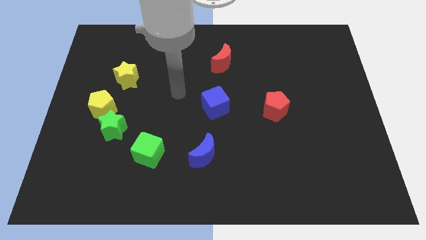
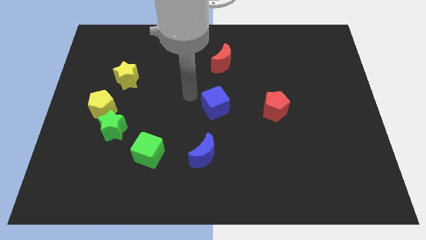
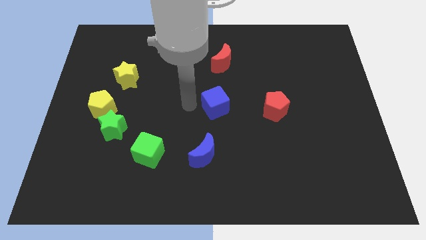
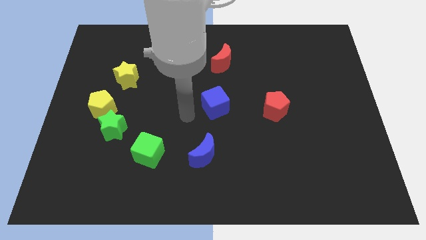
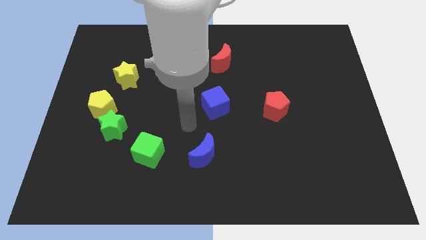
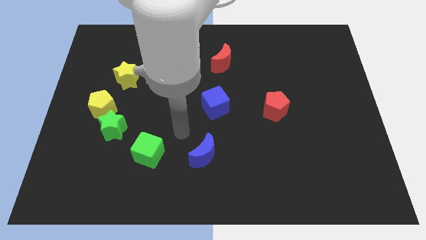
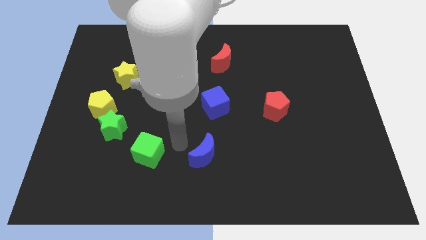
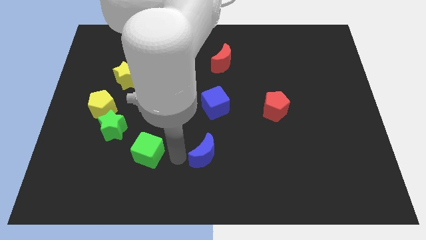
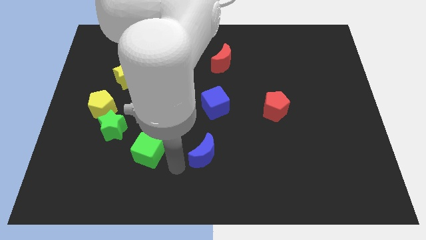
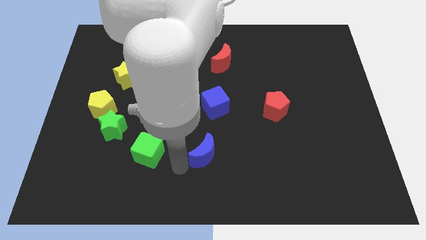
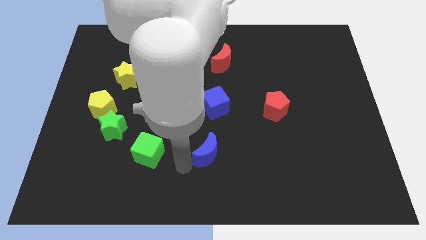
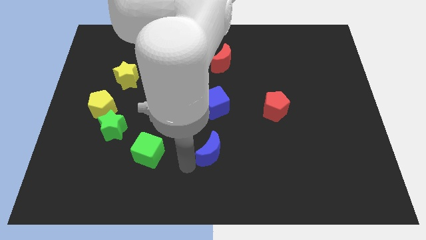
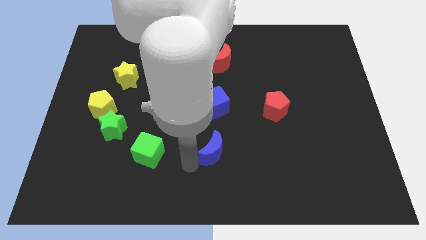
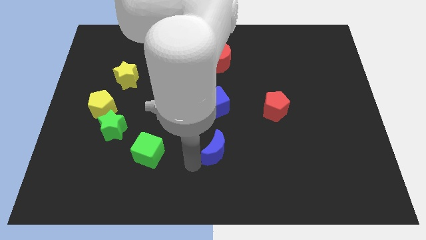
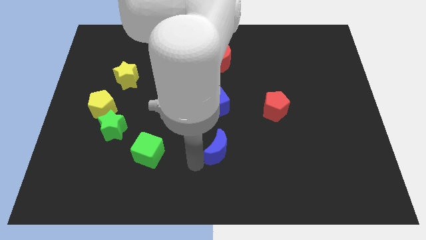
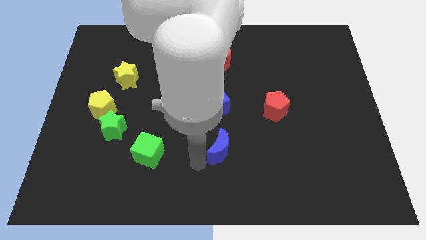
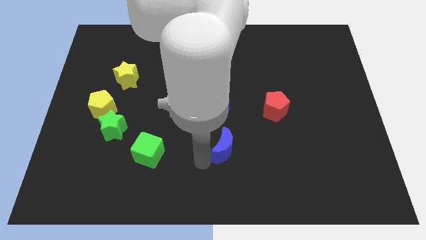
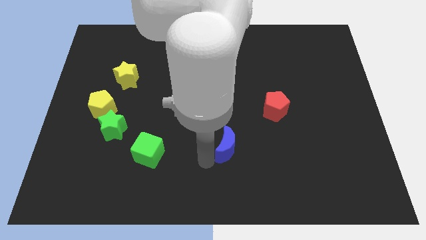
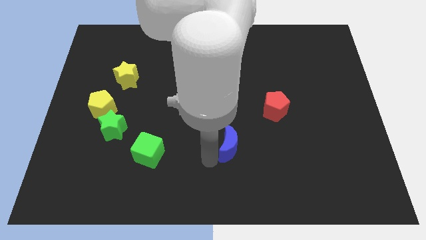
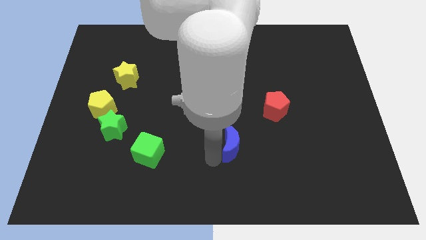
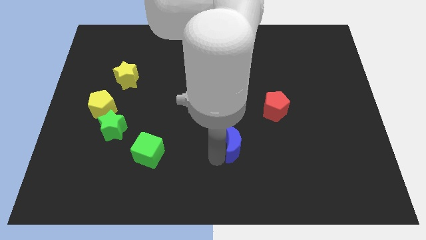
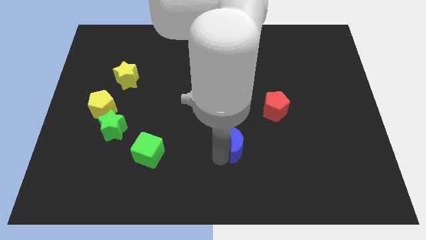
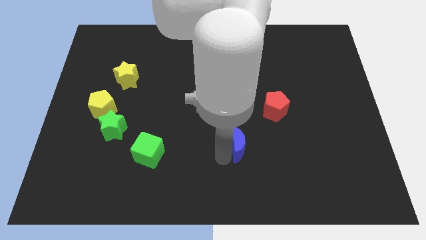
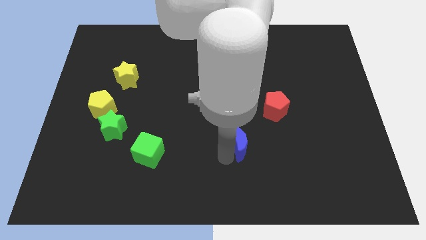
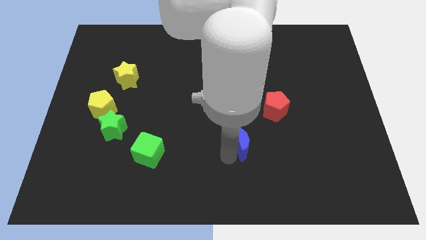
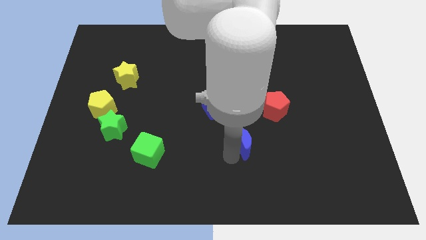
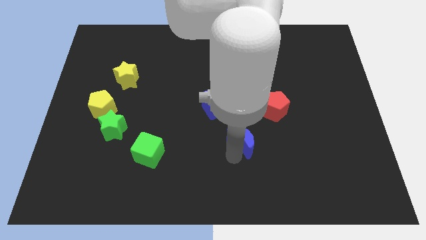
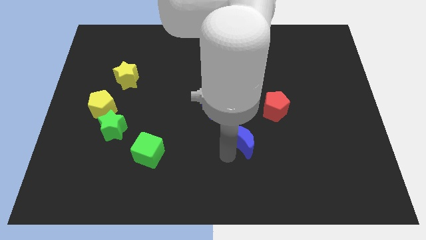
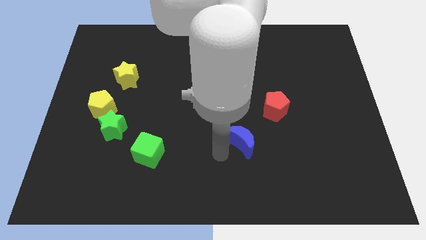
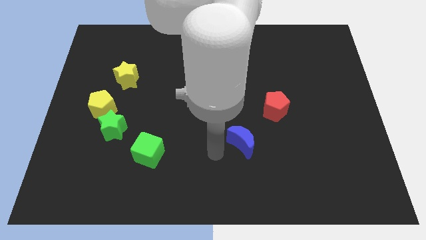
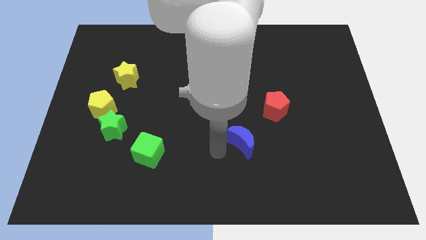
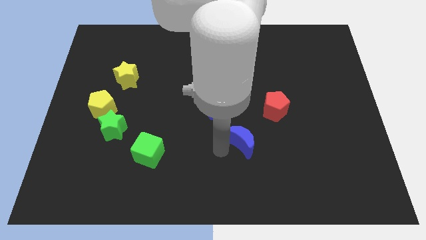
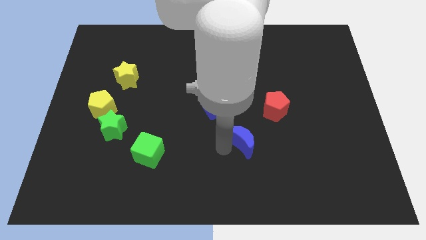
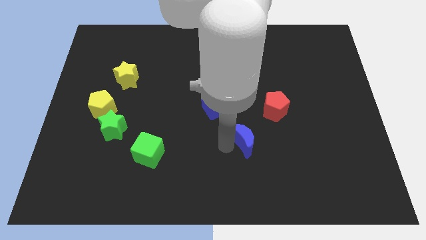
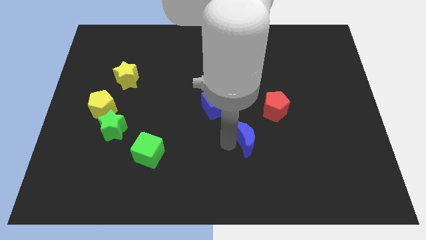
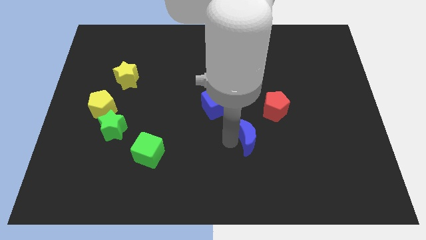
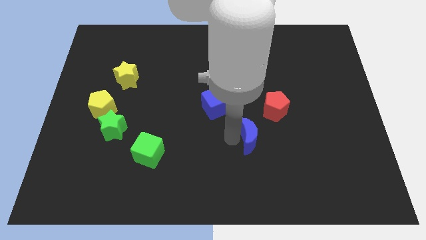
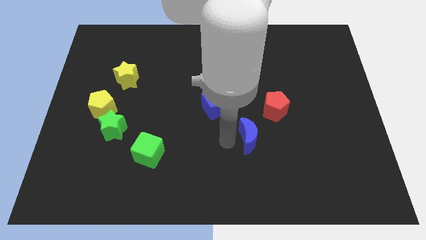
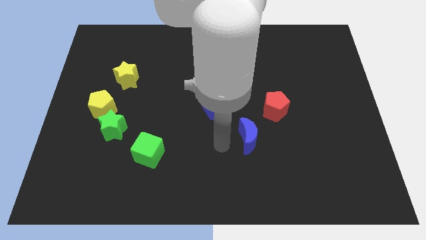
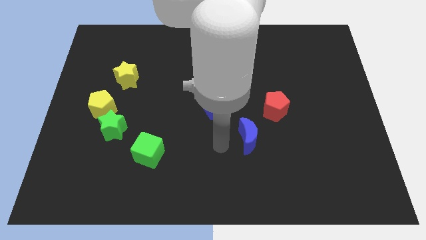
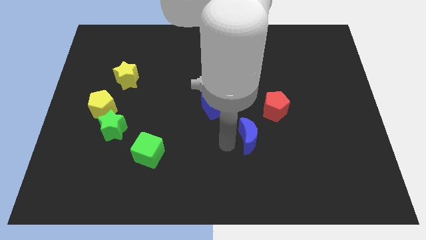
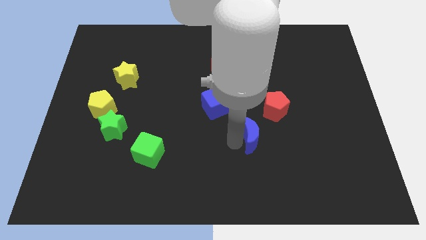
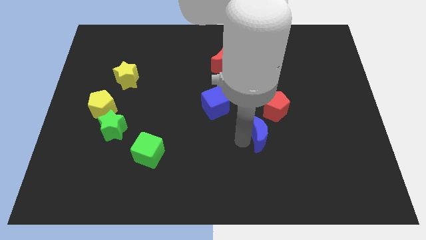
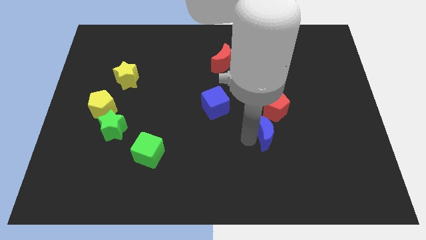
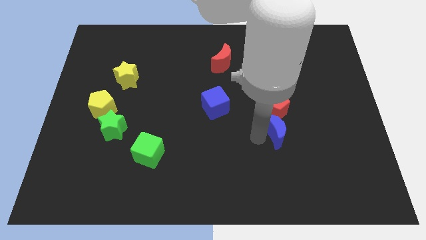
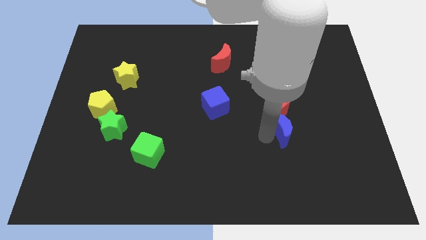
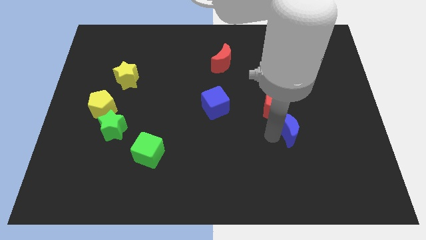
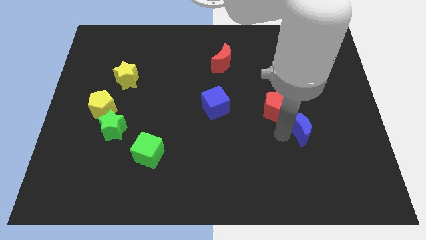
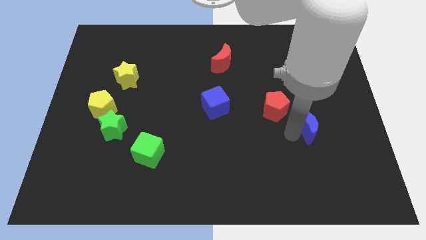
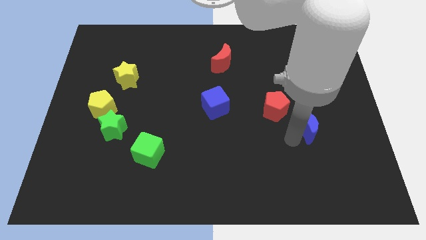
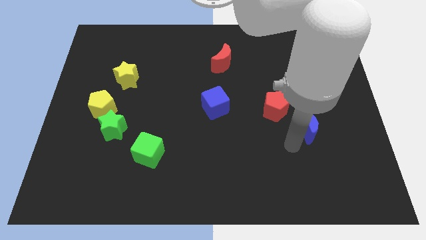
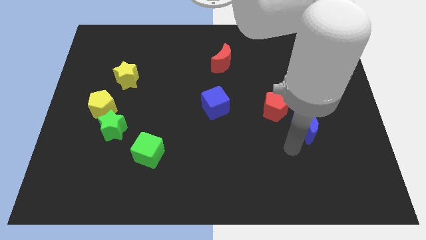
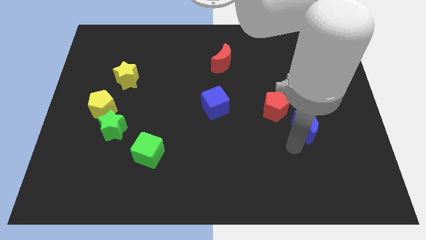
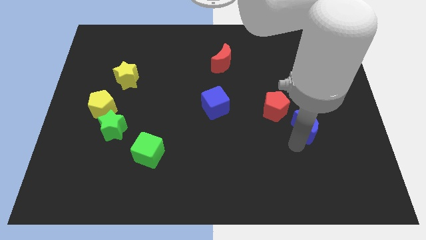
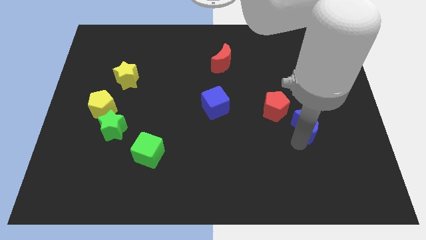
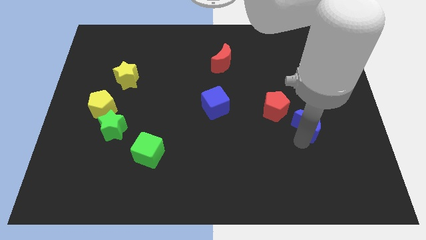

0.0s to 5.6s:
slide the blue moon right of the red pentagon

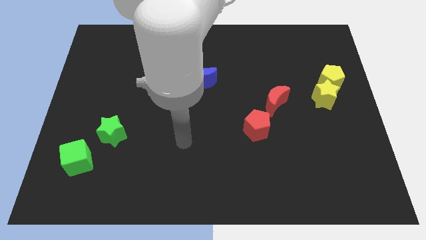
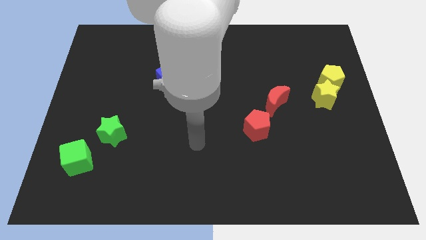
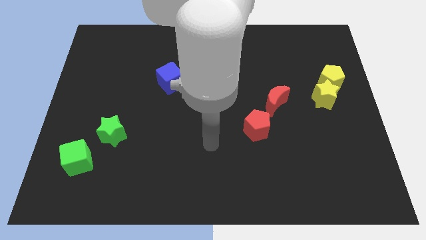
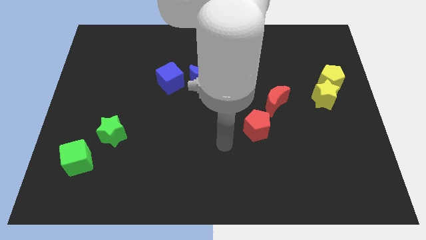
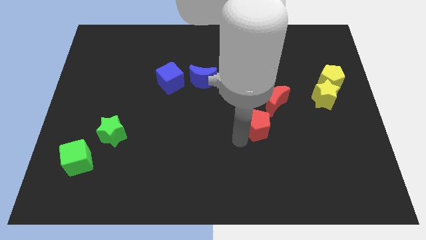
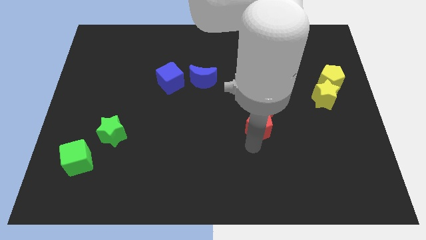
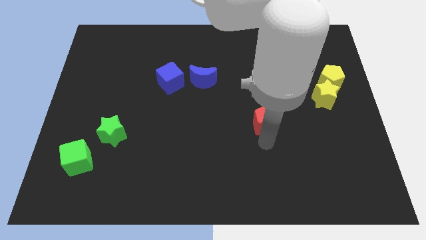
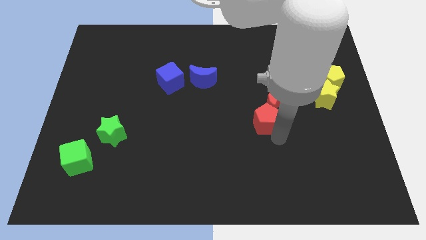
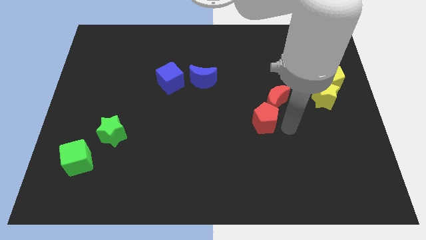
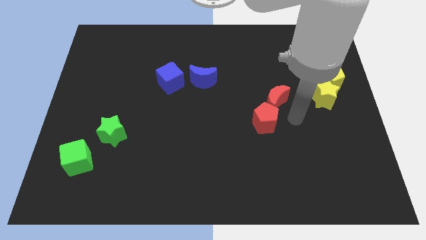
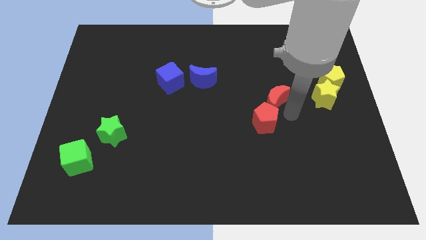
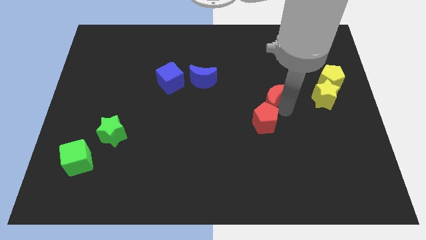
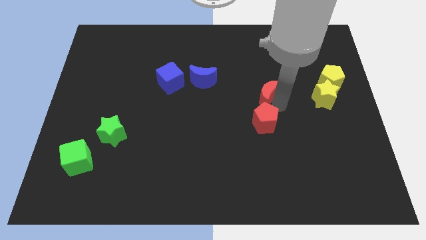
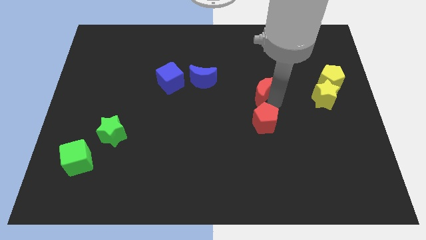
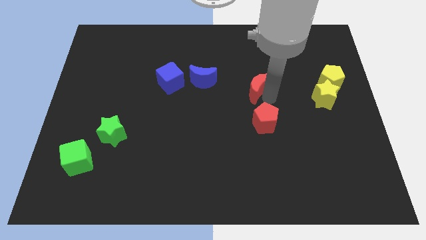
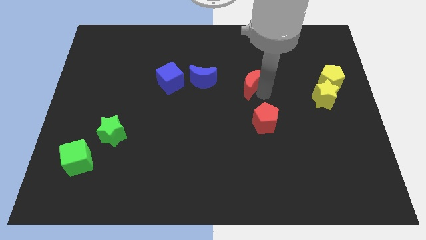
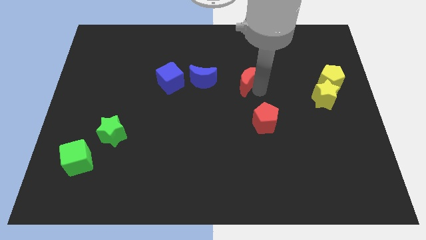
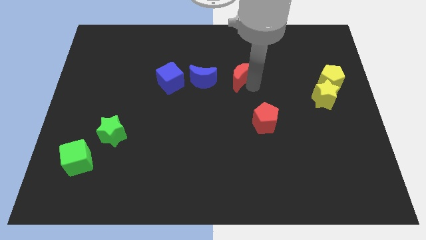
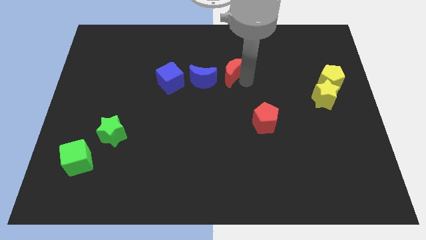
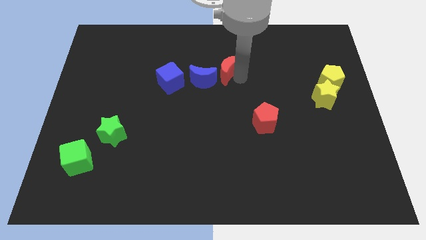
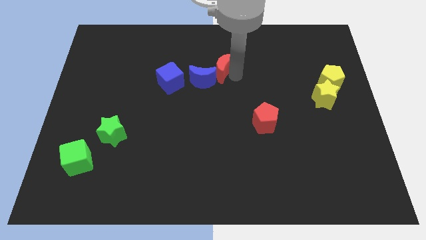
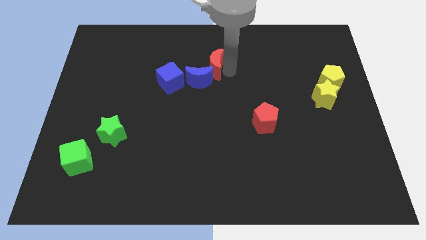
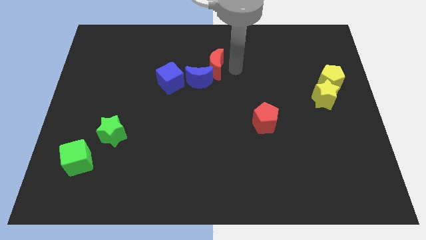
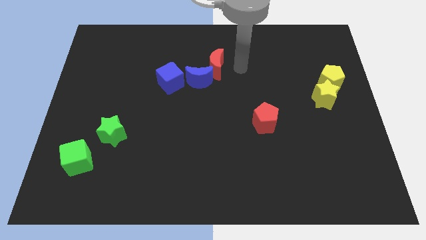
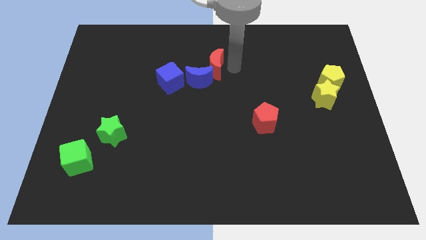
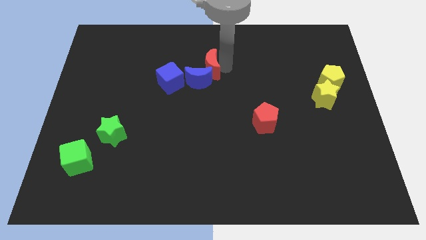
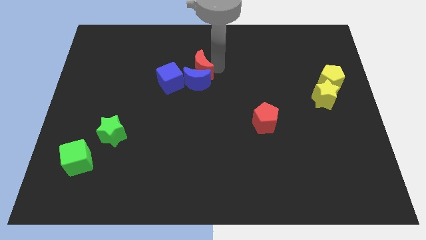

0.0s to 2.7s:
move the red moon to the top left side of the blue moon
